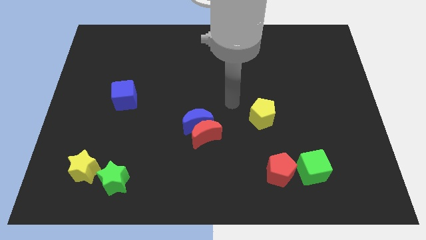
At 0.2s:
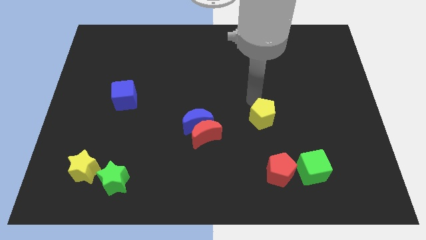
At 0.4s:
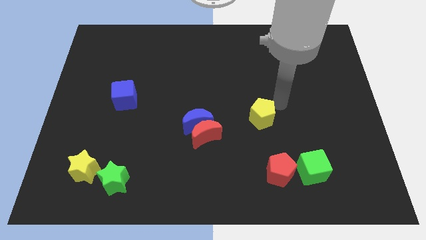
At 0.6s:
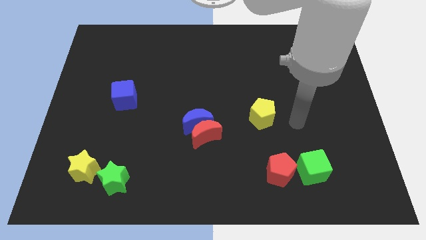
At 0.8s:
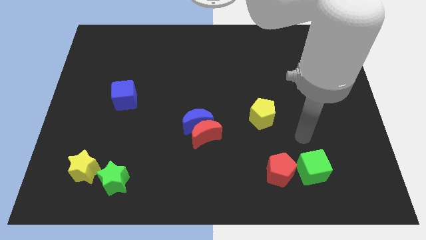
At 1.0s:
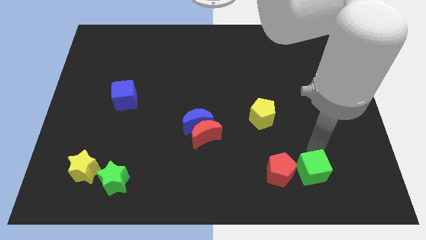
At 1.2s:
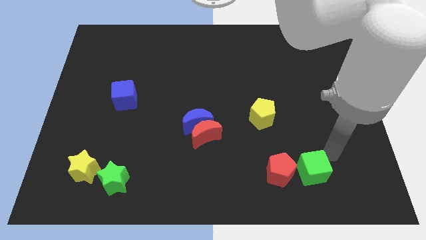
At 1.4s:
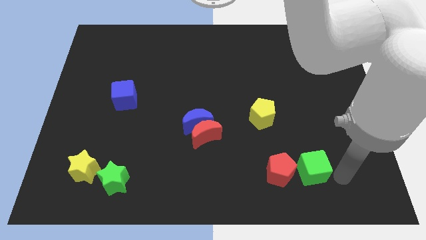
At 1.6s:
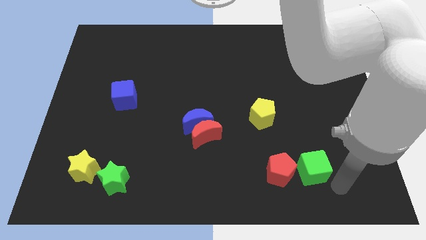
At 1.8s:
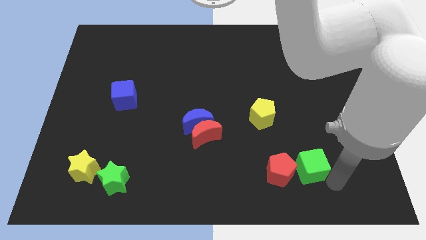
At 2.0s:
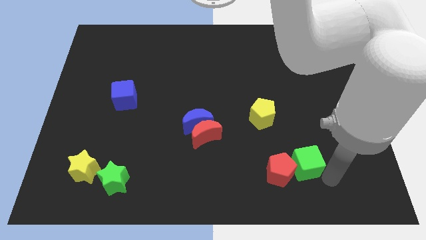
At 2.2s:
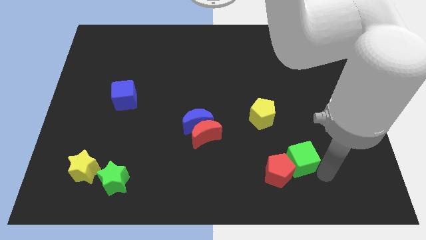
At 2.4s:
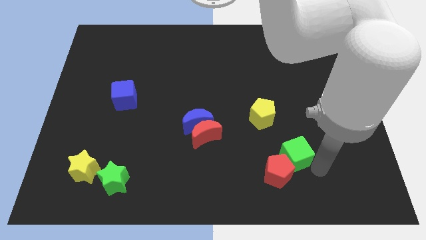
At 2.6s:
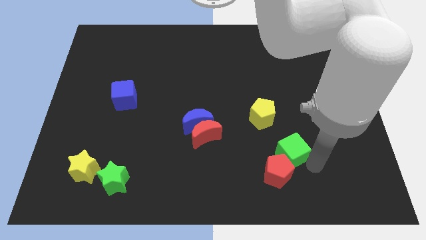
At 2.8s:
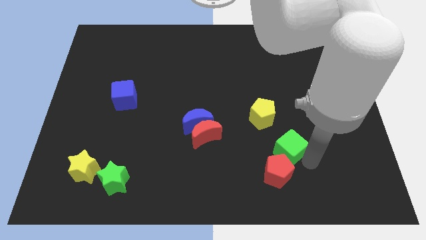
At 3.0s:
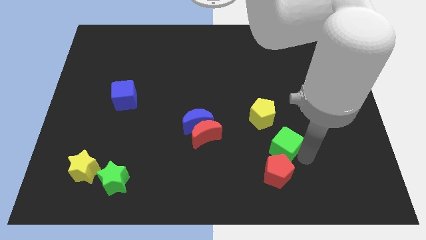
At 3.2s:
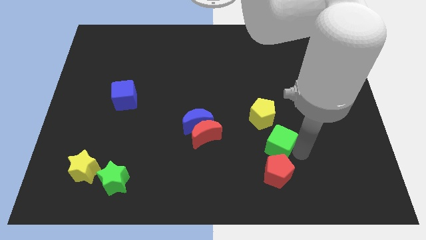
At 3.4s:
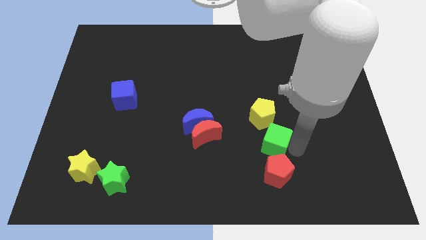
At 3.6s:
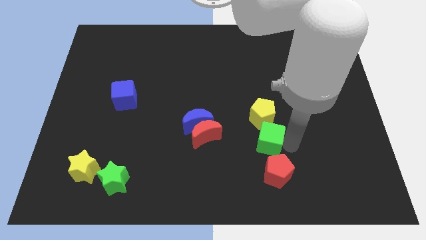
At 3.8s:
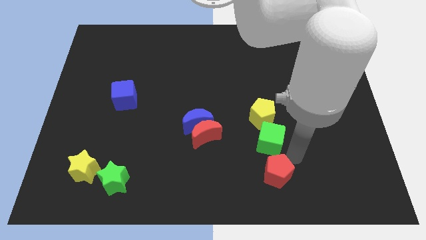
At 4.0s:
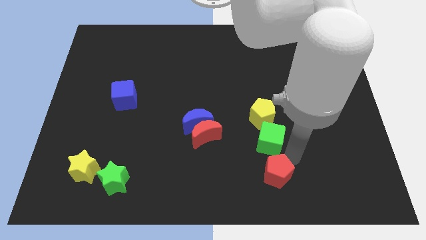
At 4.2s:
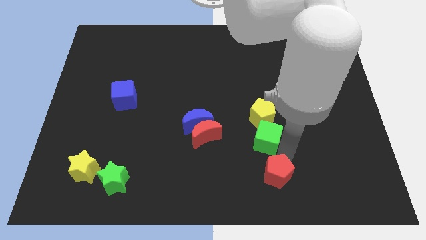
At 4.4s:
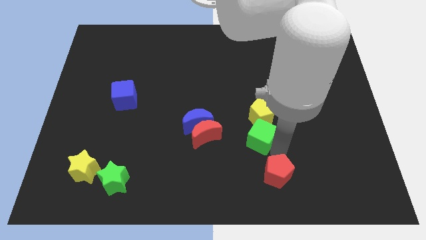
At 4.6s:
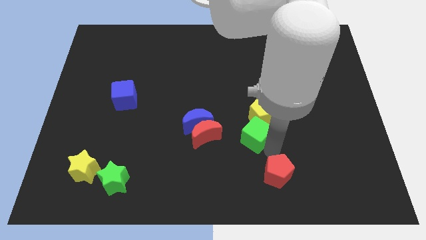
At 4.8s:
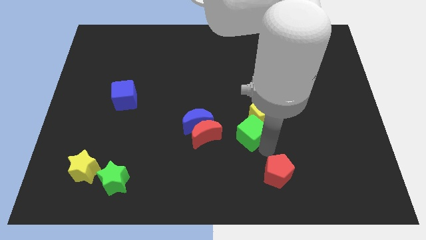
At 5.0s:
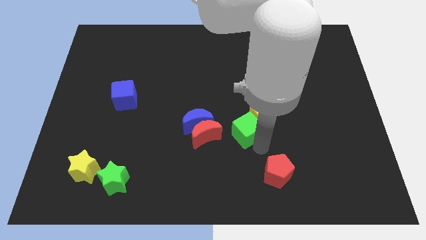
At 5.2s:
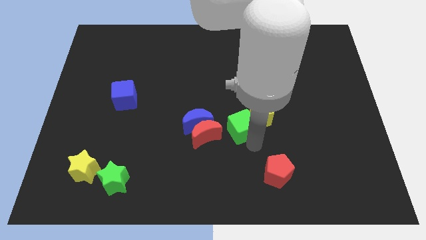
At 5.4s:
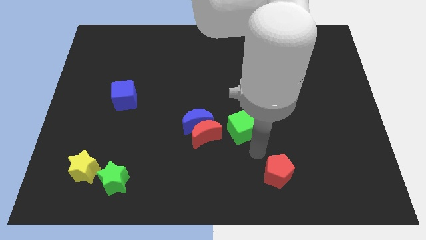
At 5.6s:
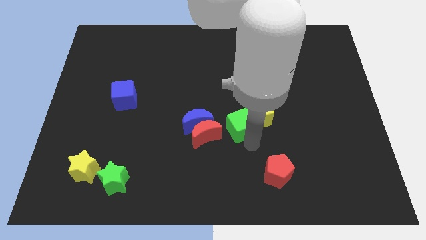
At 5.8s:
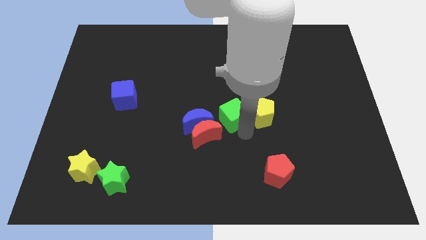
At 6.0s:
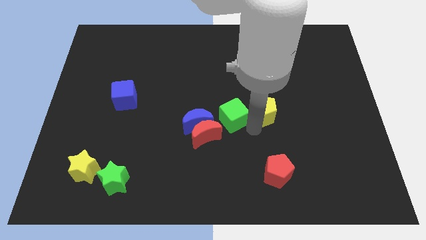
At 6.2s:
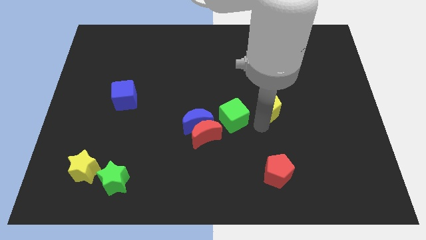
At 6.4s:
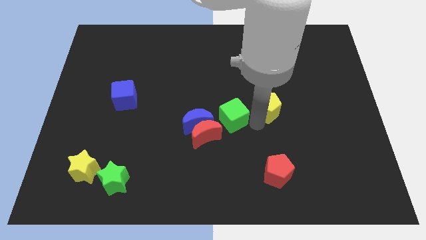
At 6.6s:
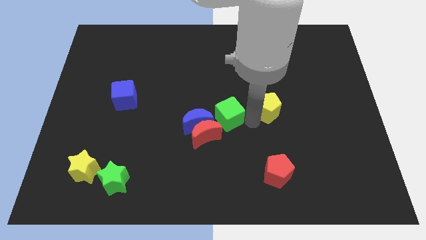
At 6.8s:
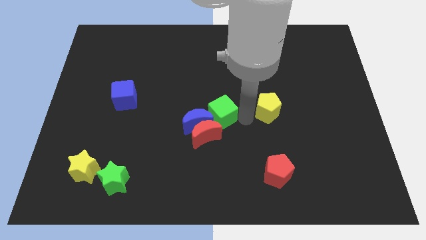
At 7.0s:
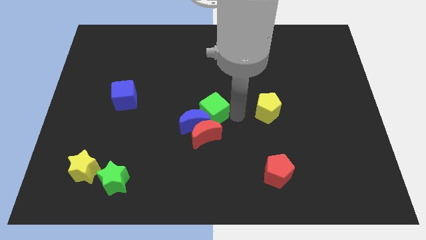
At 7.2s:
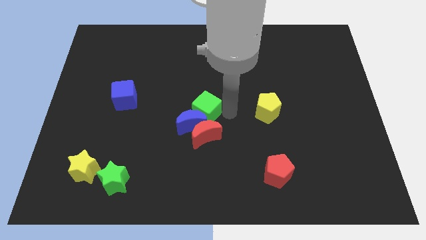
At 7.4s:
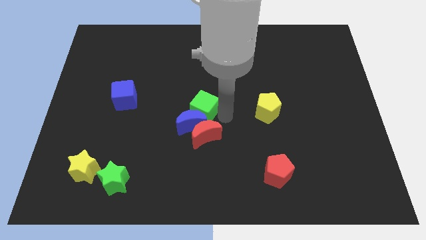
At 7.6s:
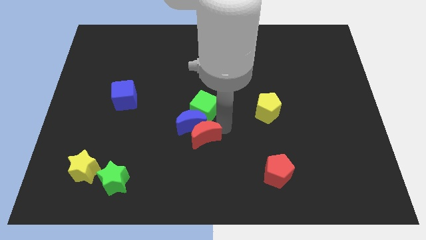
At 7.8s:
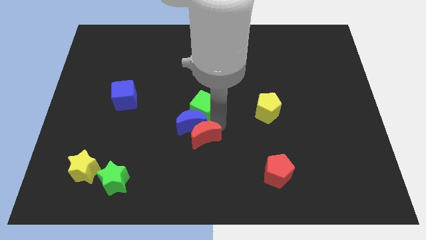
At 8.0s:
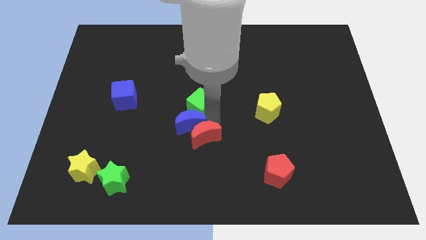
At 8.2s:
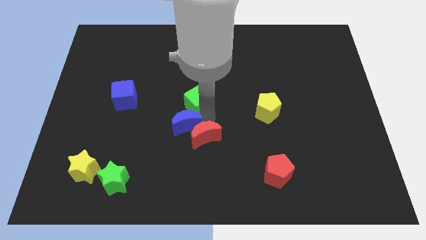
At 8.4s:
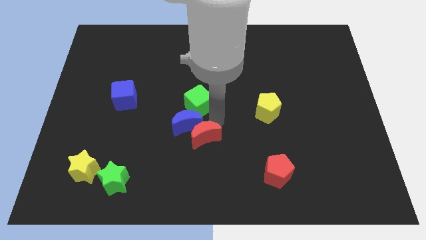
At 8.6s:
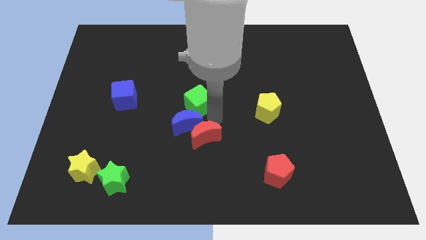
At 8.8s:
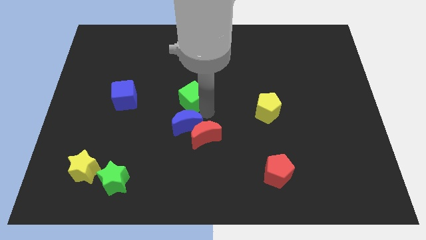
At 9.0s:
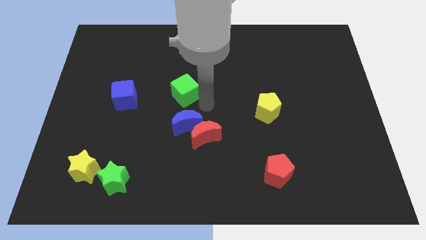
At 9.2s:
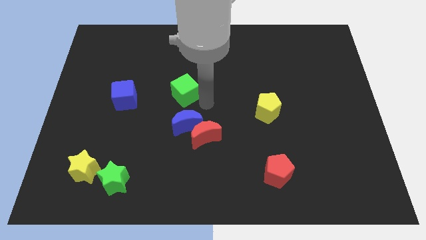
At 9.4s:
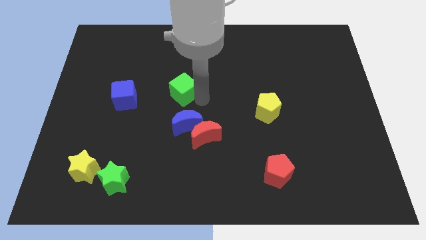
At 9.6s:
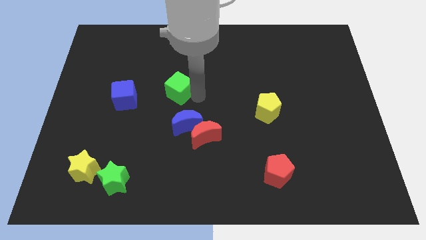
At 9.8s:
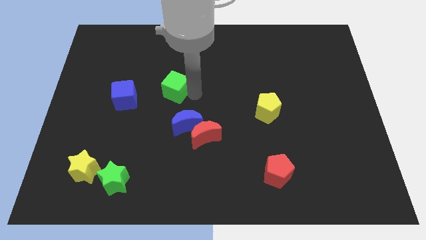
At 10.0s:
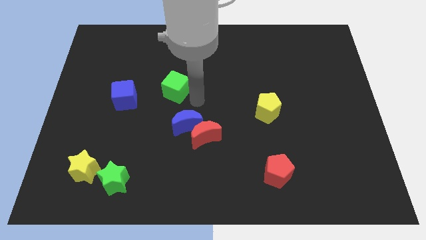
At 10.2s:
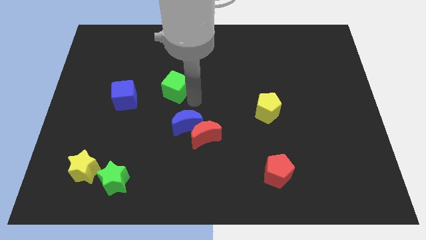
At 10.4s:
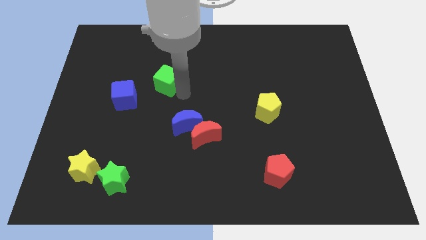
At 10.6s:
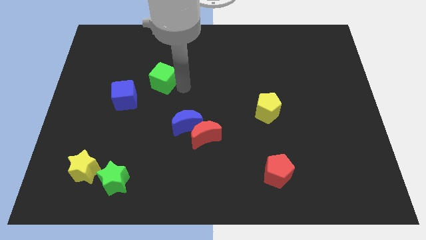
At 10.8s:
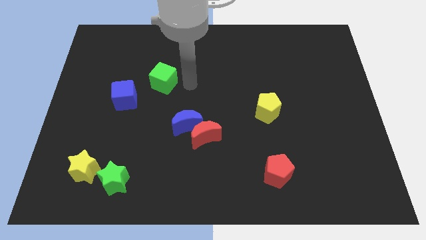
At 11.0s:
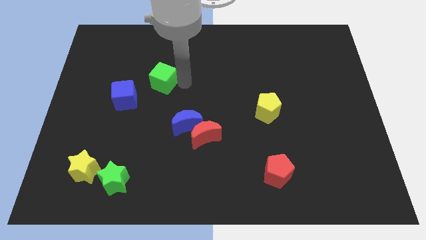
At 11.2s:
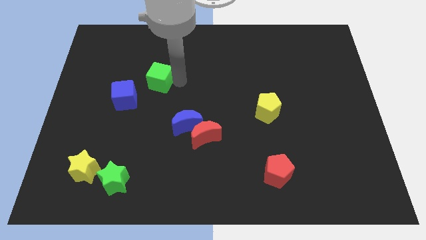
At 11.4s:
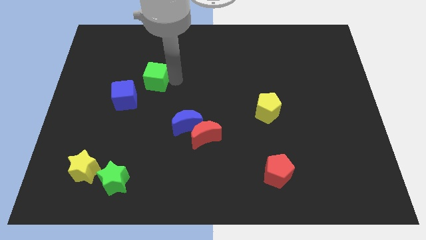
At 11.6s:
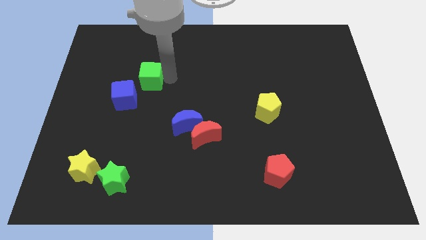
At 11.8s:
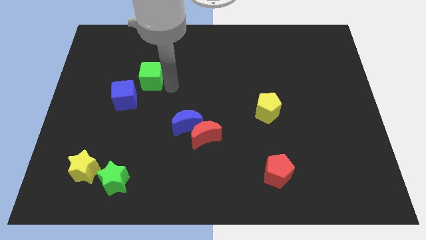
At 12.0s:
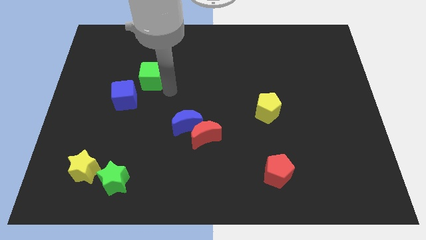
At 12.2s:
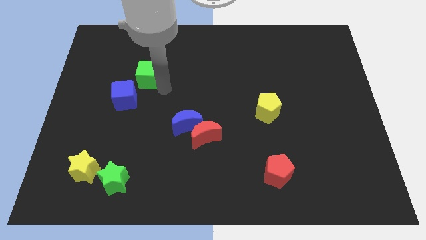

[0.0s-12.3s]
push the green cube above the blue cube

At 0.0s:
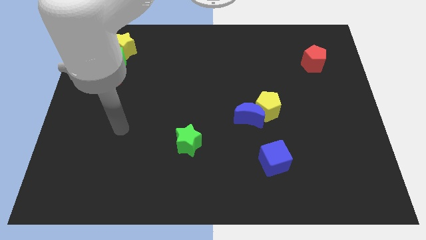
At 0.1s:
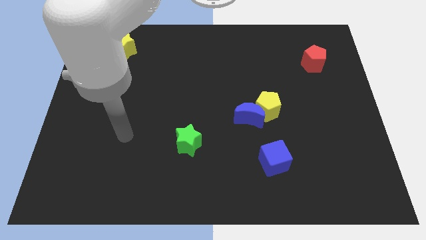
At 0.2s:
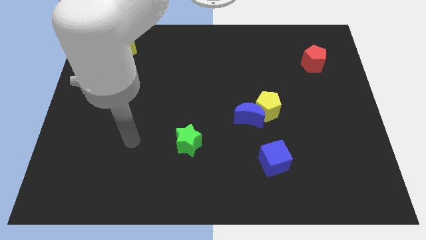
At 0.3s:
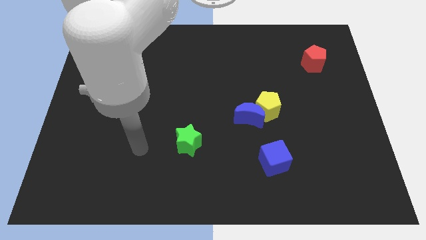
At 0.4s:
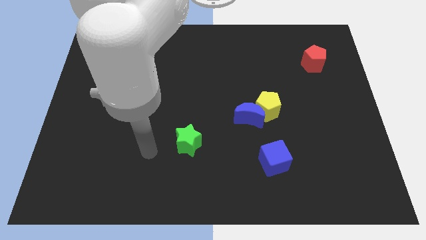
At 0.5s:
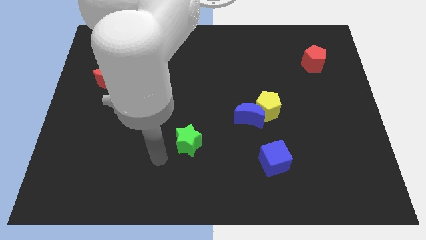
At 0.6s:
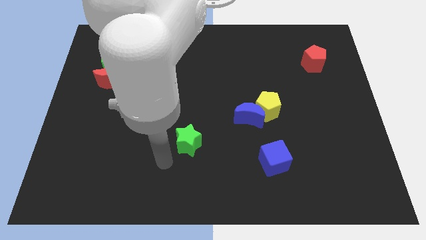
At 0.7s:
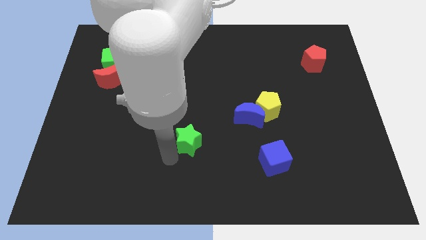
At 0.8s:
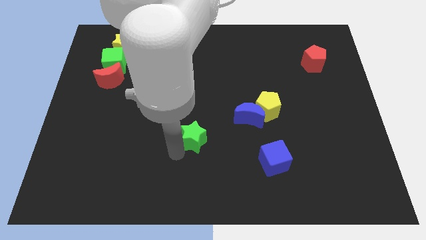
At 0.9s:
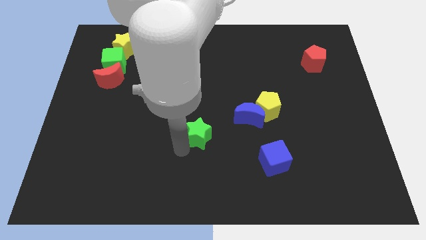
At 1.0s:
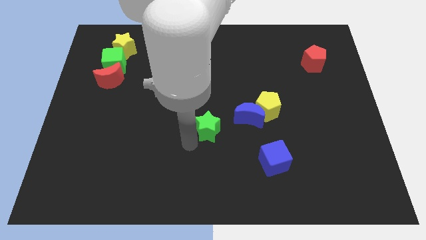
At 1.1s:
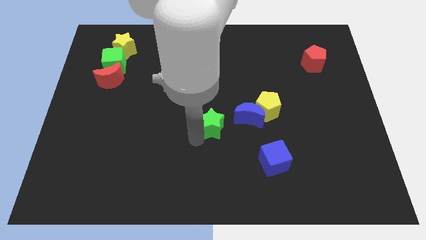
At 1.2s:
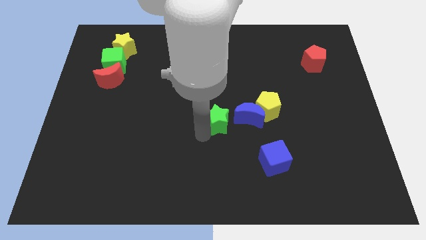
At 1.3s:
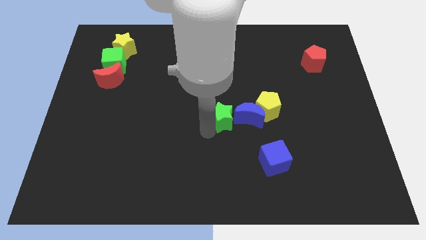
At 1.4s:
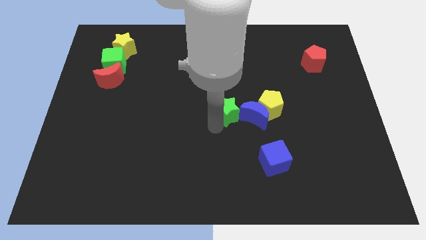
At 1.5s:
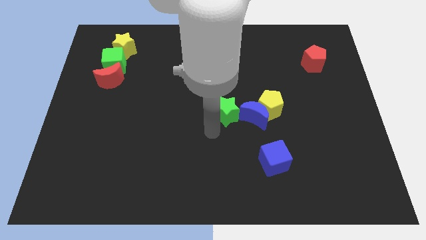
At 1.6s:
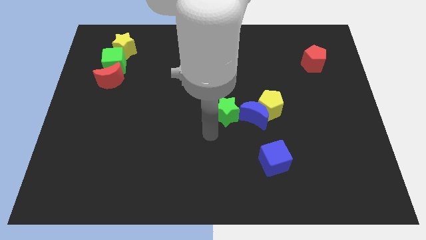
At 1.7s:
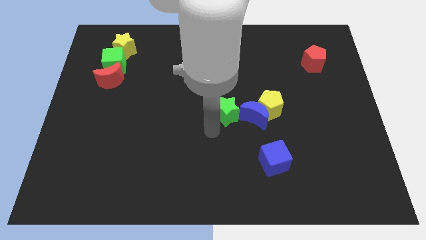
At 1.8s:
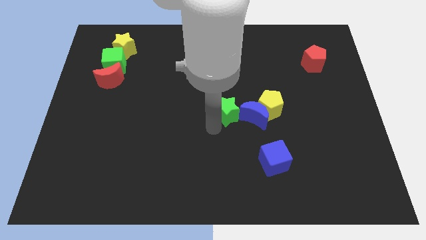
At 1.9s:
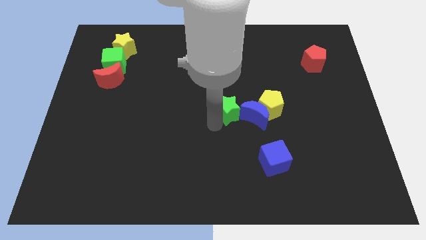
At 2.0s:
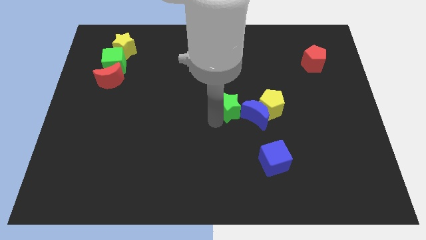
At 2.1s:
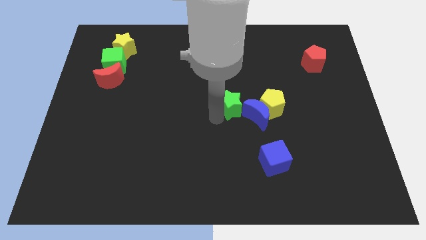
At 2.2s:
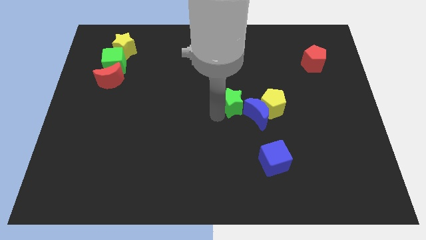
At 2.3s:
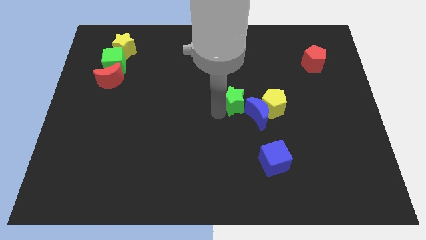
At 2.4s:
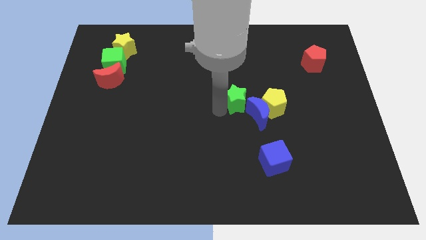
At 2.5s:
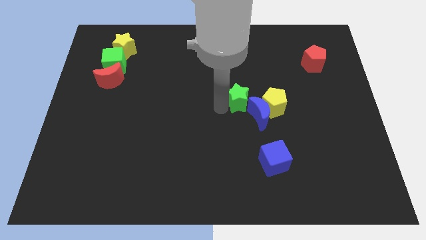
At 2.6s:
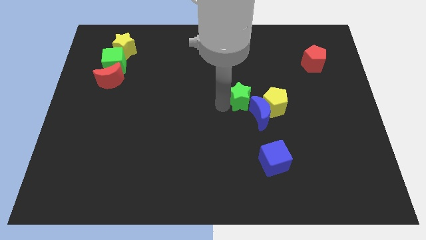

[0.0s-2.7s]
put the green star to the top left of the yellow pentagon
